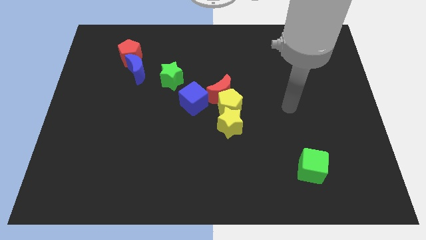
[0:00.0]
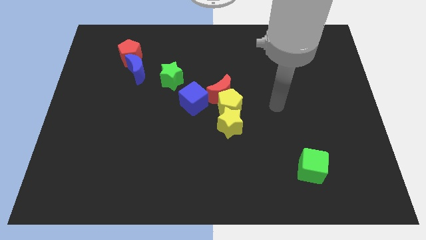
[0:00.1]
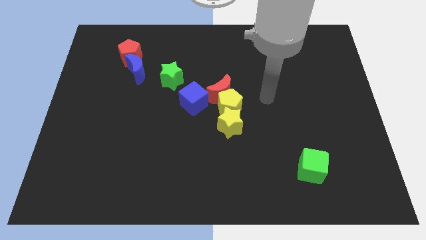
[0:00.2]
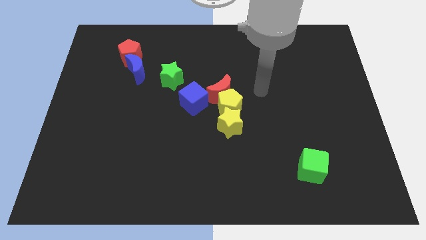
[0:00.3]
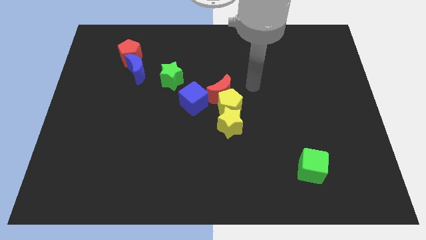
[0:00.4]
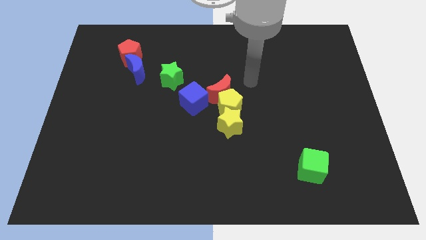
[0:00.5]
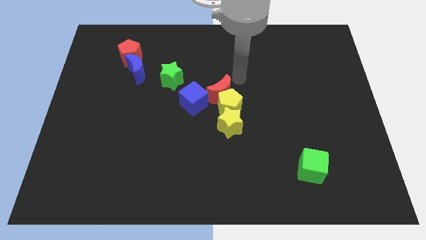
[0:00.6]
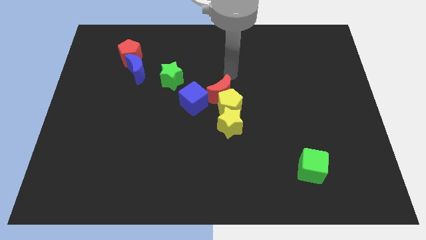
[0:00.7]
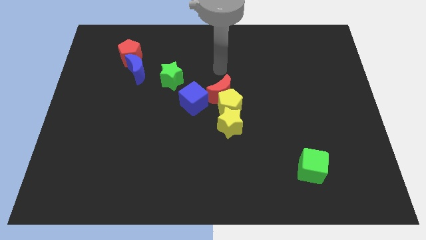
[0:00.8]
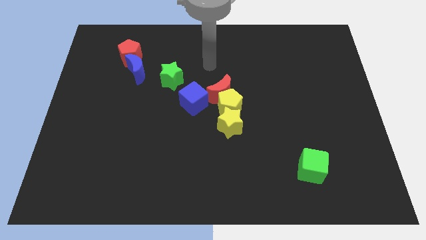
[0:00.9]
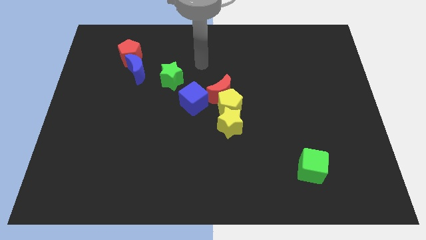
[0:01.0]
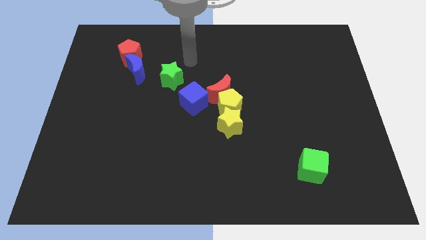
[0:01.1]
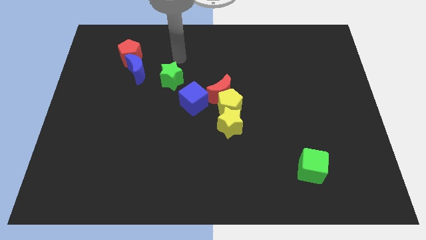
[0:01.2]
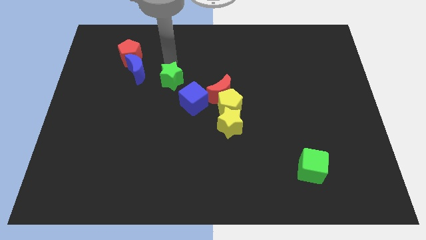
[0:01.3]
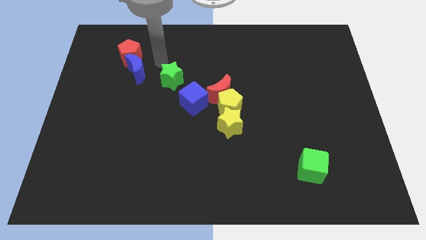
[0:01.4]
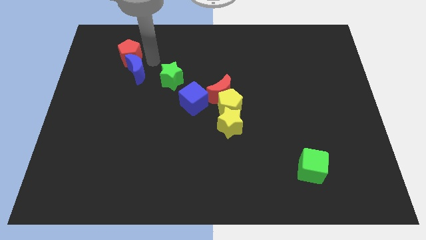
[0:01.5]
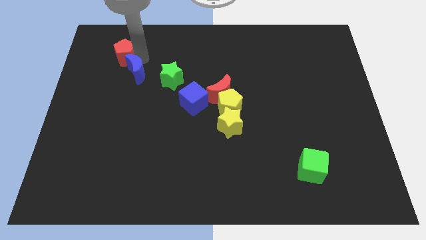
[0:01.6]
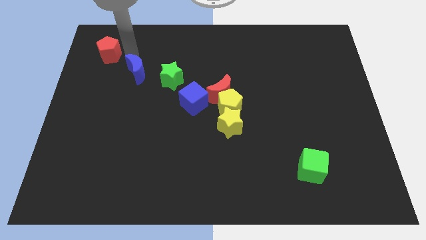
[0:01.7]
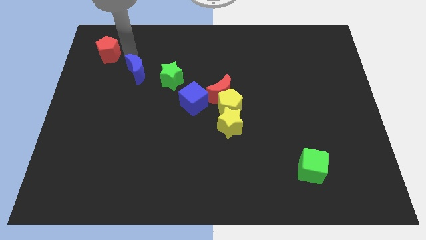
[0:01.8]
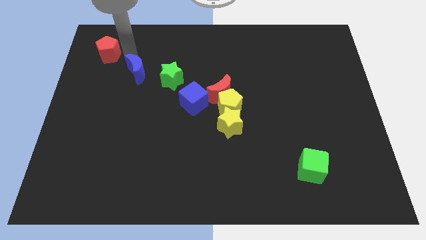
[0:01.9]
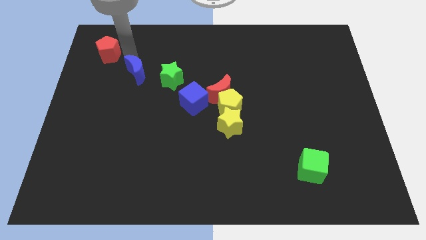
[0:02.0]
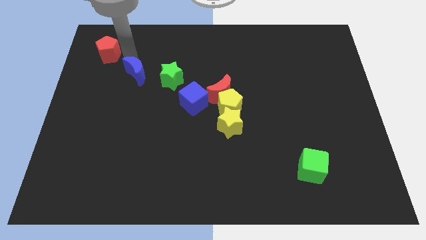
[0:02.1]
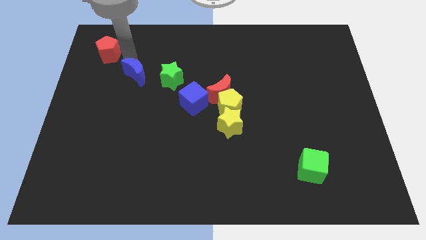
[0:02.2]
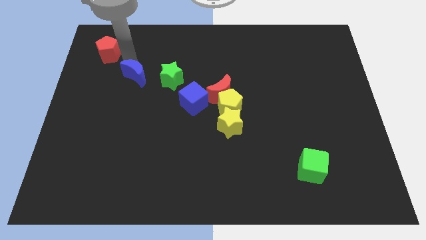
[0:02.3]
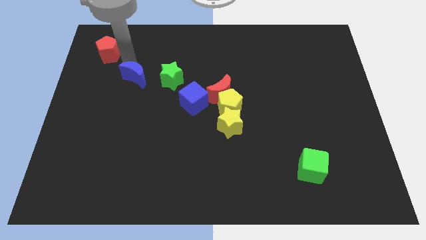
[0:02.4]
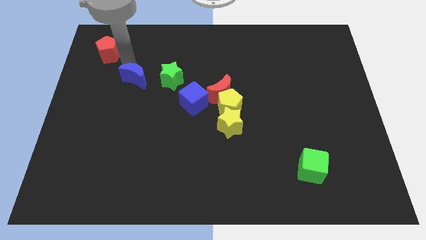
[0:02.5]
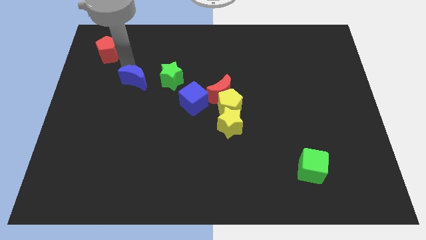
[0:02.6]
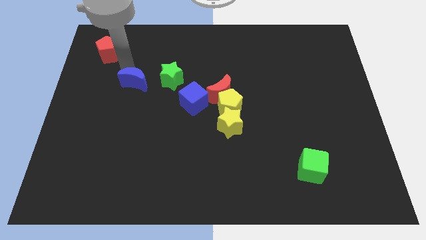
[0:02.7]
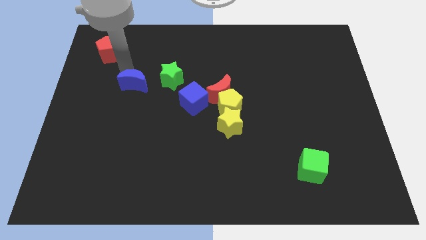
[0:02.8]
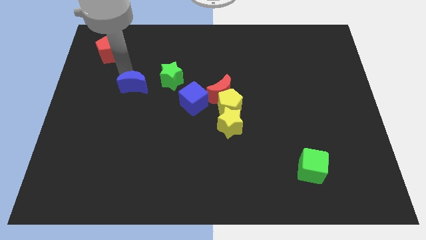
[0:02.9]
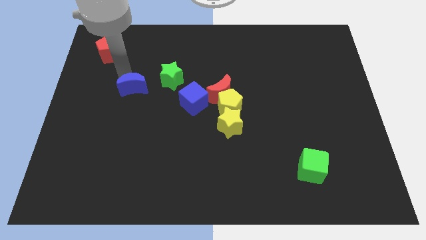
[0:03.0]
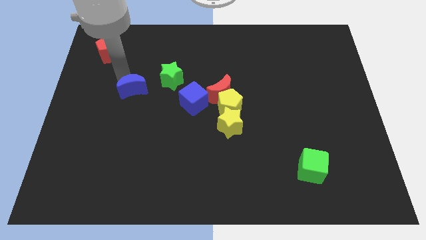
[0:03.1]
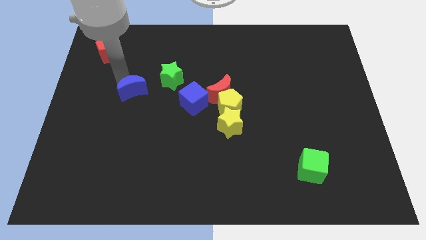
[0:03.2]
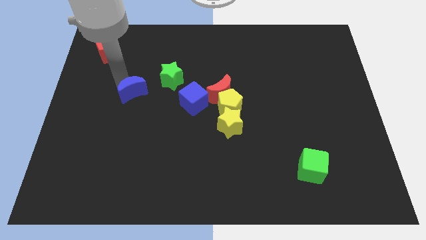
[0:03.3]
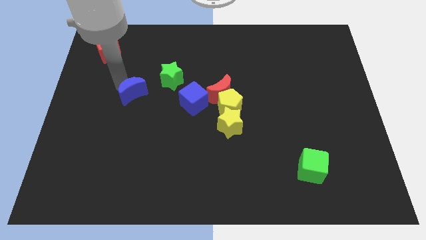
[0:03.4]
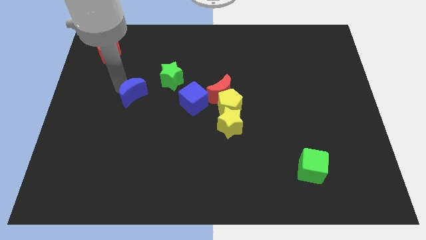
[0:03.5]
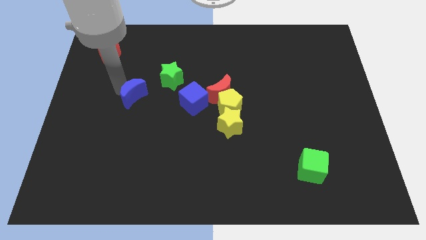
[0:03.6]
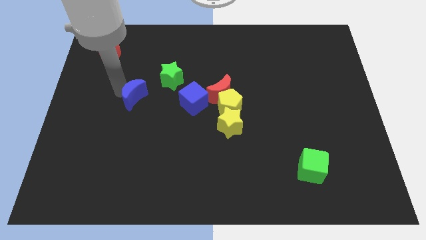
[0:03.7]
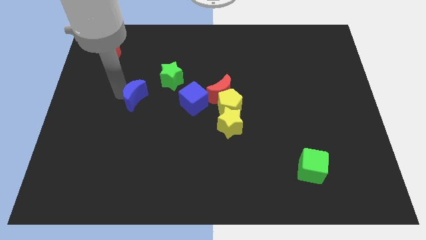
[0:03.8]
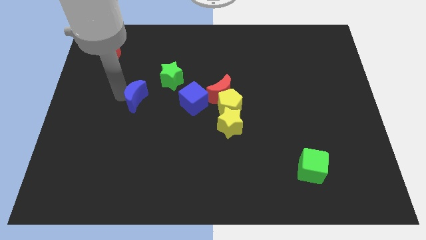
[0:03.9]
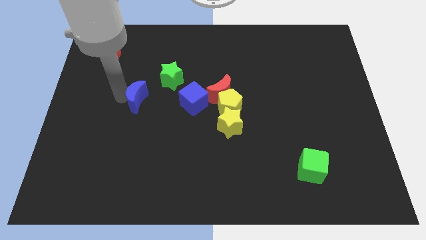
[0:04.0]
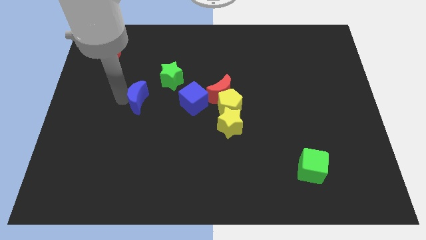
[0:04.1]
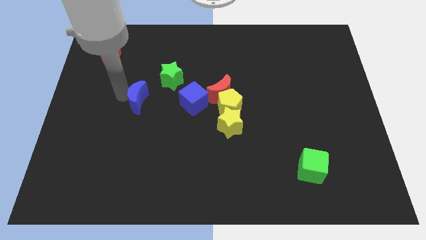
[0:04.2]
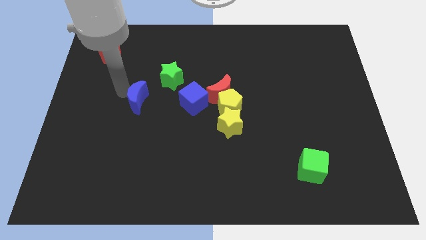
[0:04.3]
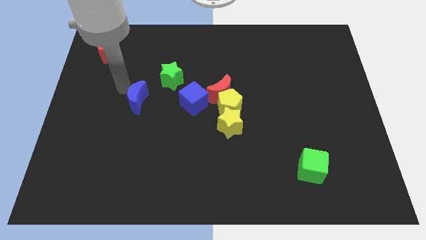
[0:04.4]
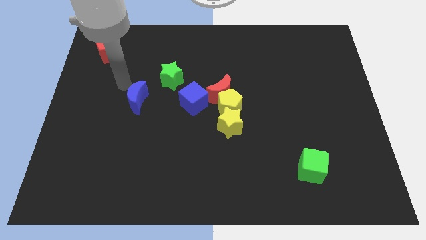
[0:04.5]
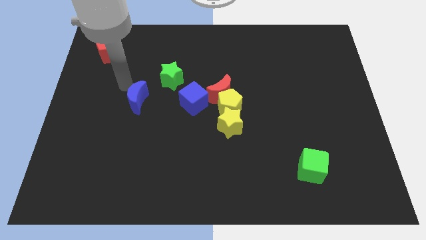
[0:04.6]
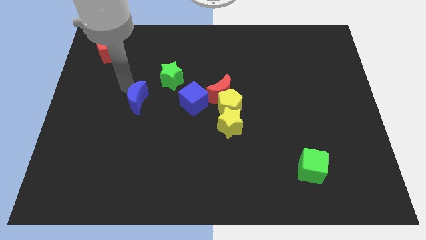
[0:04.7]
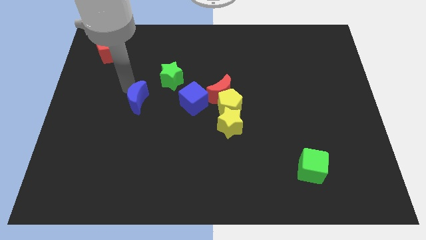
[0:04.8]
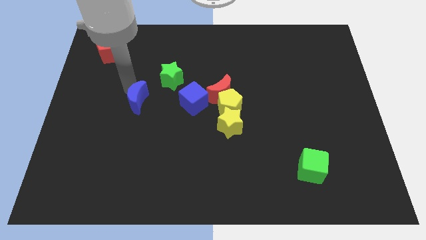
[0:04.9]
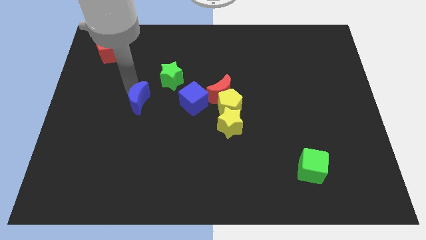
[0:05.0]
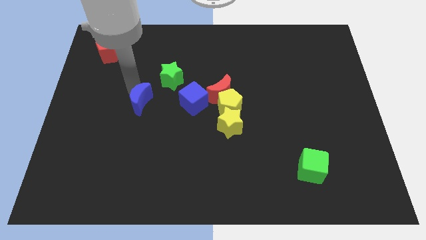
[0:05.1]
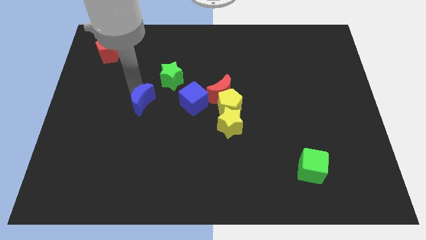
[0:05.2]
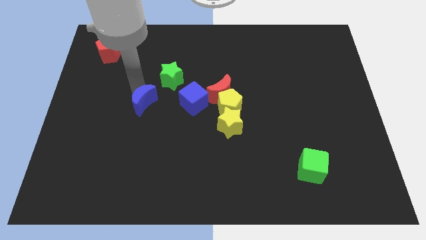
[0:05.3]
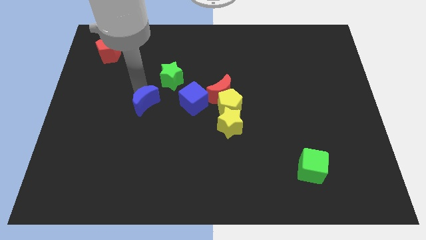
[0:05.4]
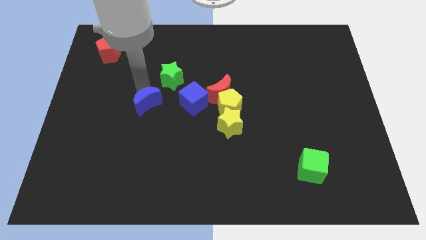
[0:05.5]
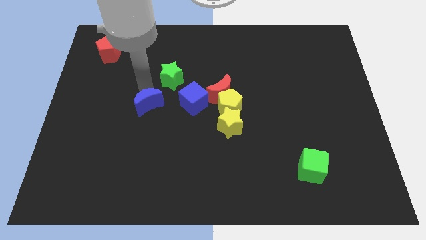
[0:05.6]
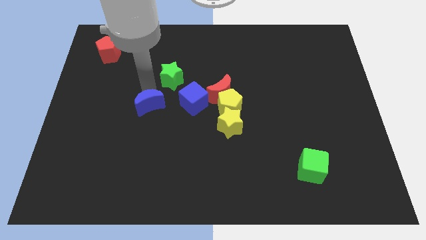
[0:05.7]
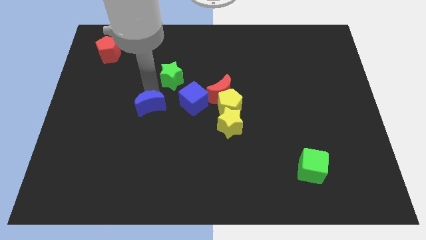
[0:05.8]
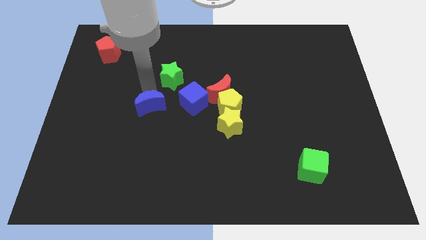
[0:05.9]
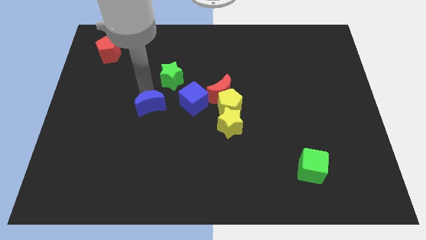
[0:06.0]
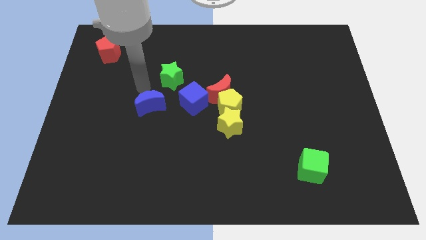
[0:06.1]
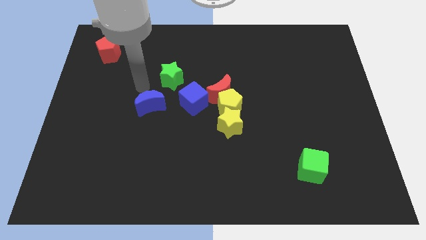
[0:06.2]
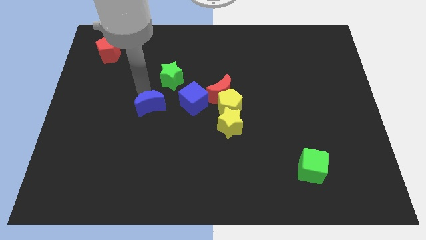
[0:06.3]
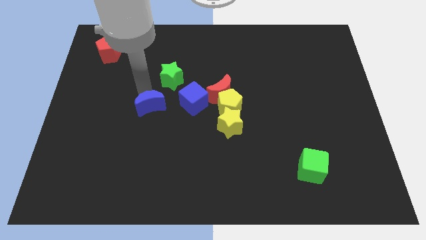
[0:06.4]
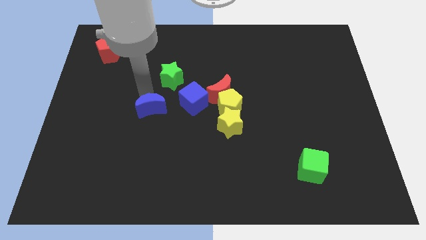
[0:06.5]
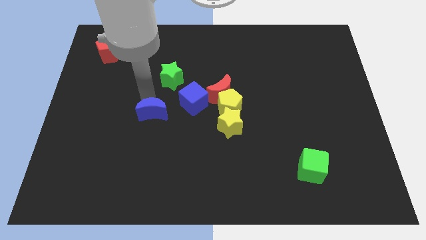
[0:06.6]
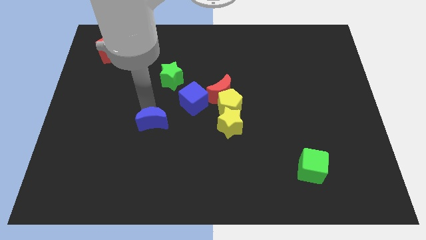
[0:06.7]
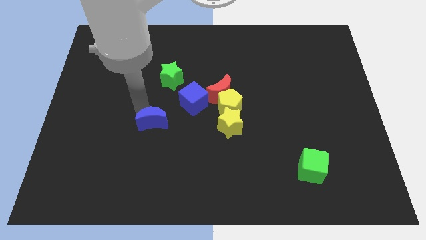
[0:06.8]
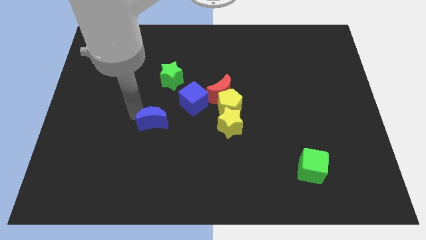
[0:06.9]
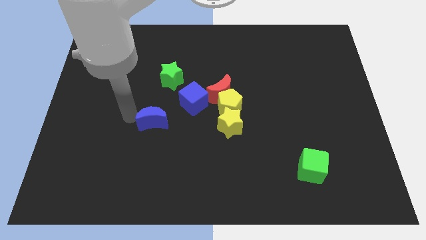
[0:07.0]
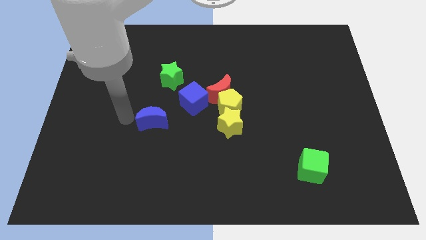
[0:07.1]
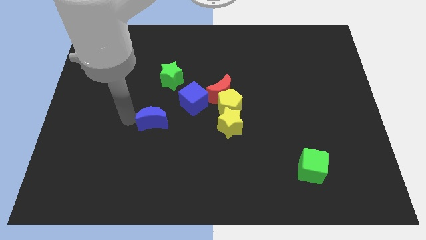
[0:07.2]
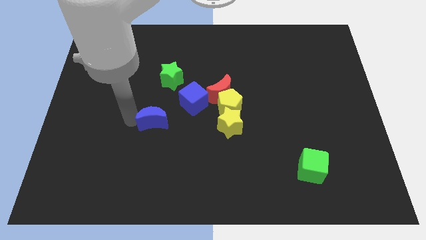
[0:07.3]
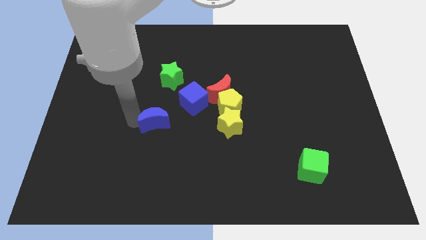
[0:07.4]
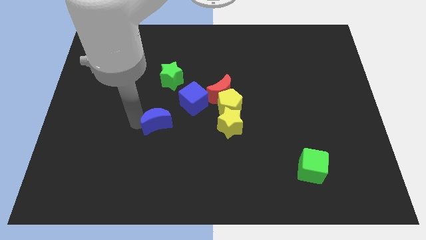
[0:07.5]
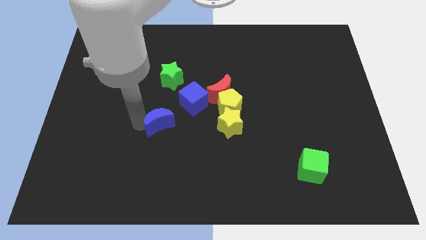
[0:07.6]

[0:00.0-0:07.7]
push the blue moon to the left side of the yellow star
